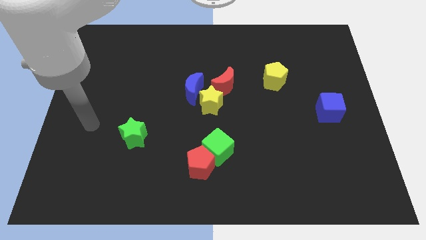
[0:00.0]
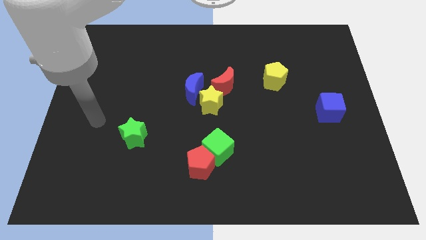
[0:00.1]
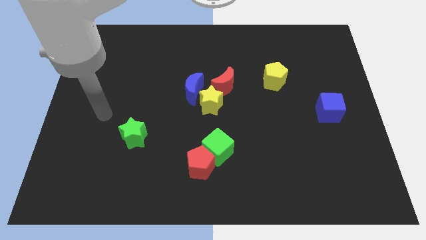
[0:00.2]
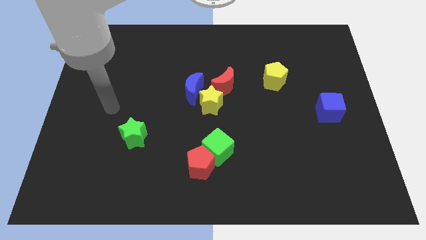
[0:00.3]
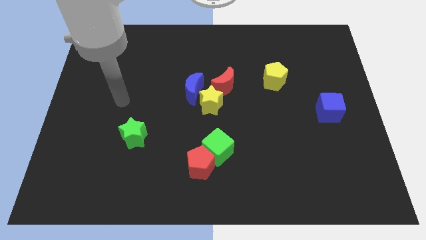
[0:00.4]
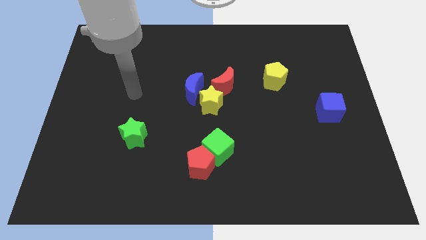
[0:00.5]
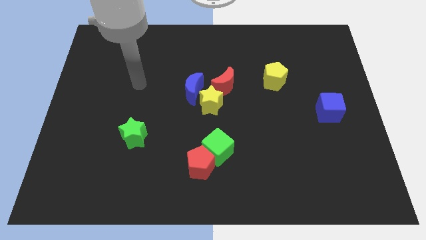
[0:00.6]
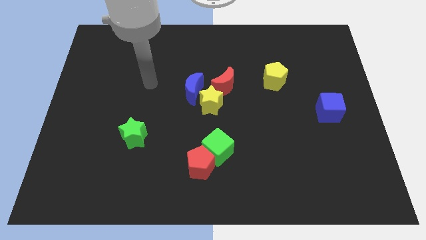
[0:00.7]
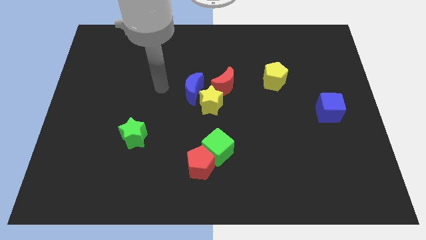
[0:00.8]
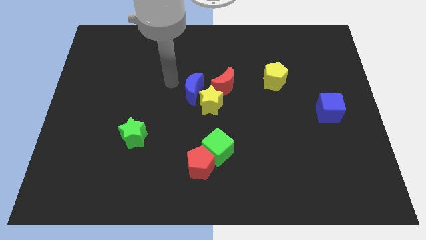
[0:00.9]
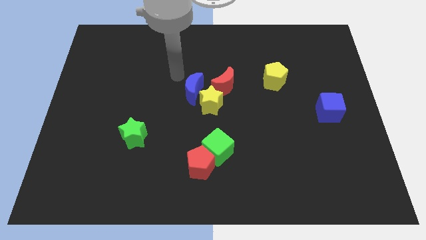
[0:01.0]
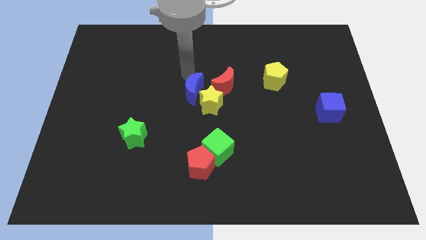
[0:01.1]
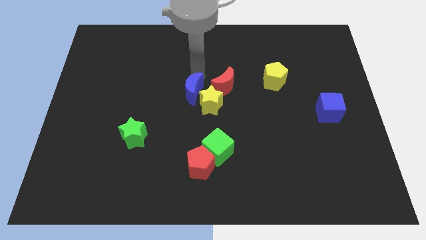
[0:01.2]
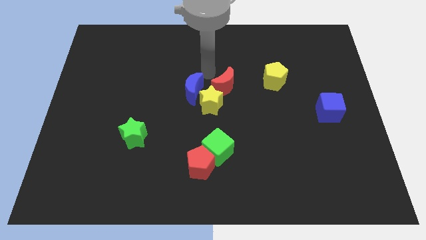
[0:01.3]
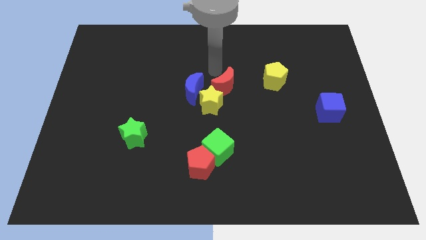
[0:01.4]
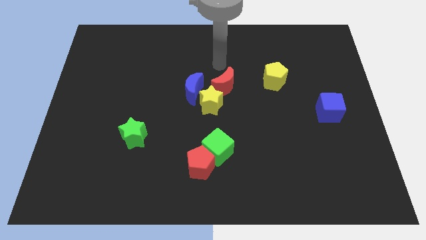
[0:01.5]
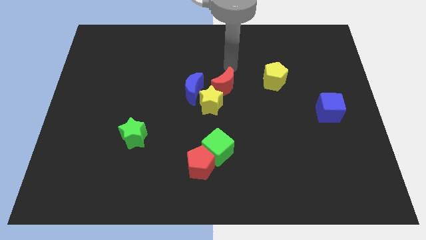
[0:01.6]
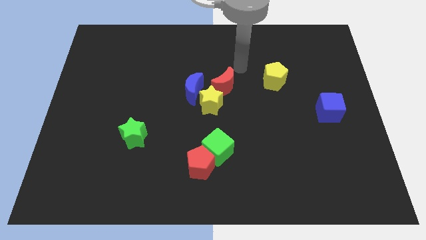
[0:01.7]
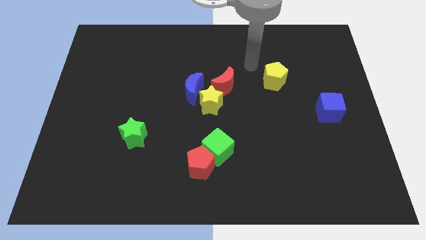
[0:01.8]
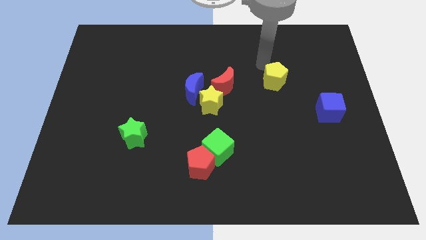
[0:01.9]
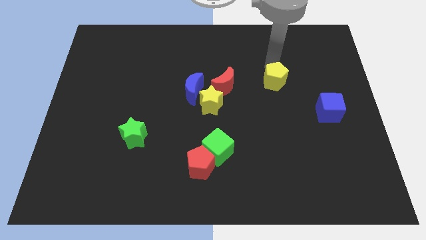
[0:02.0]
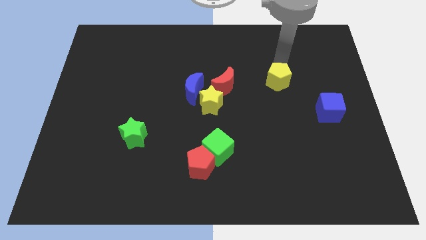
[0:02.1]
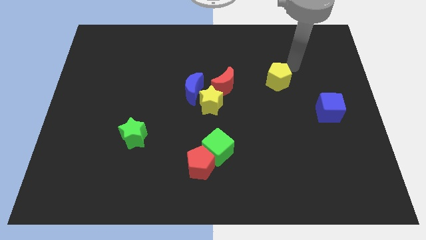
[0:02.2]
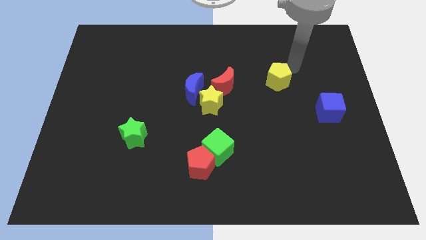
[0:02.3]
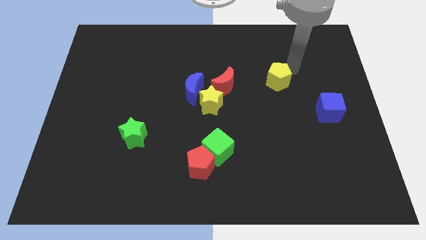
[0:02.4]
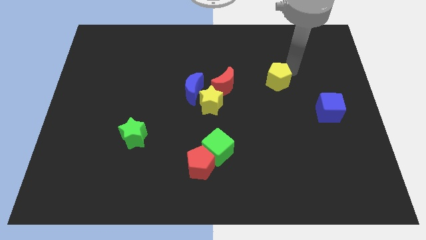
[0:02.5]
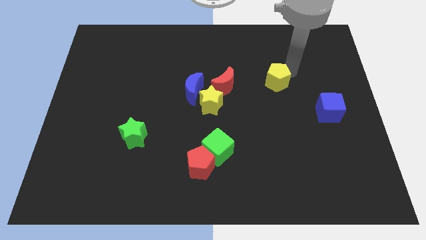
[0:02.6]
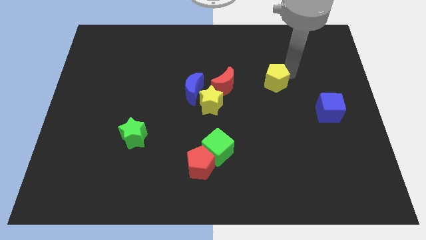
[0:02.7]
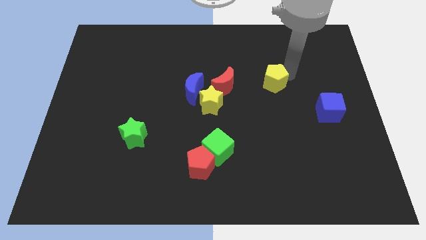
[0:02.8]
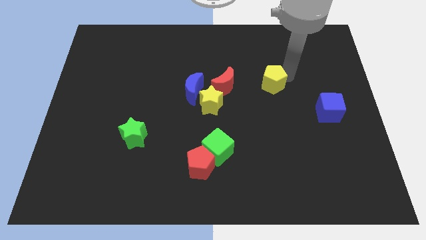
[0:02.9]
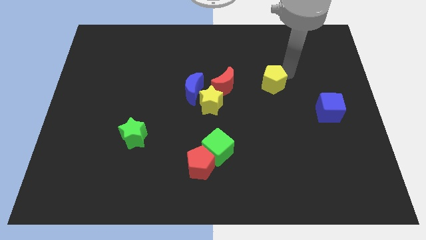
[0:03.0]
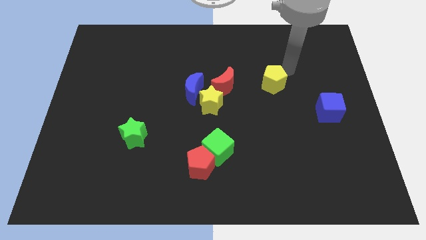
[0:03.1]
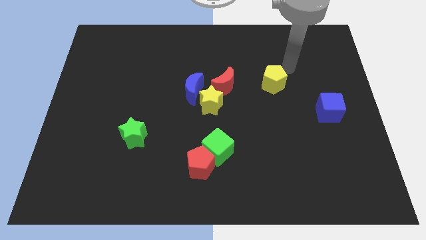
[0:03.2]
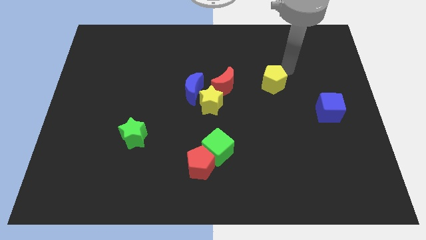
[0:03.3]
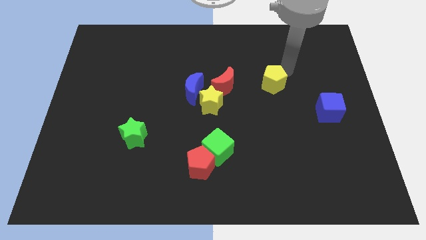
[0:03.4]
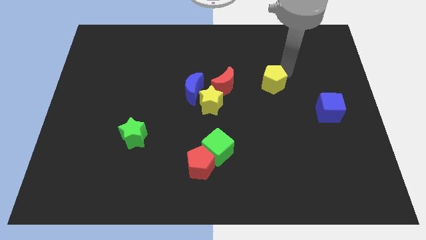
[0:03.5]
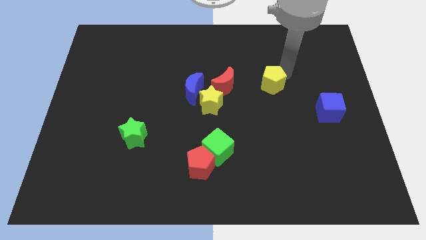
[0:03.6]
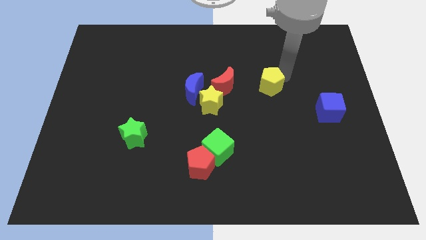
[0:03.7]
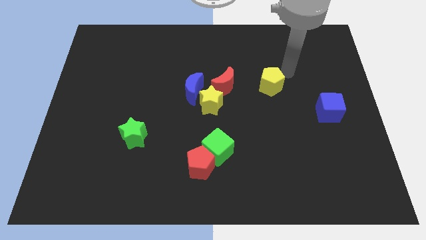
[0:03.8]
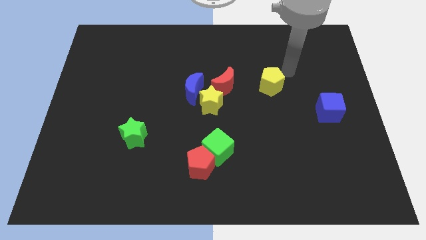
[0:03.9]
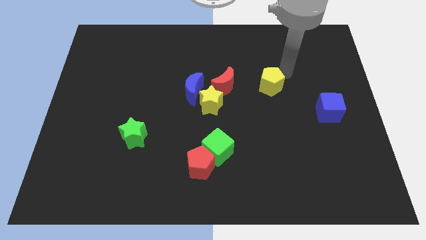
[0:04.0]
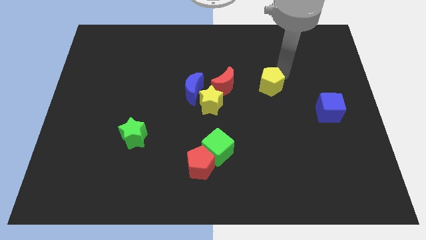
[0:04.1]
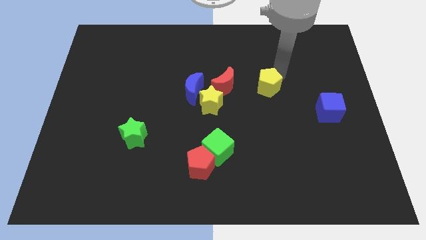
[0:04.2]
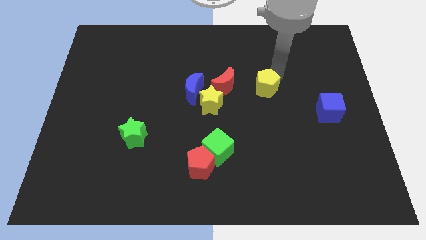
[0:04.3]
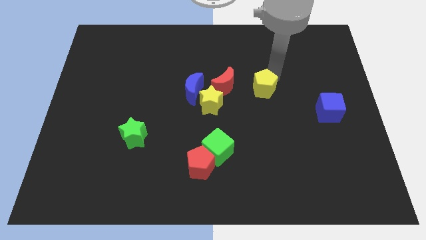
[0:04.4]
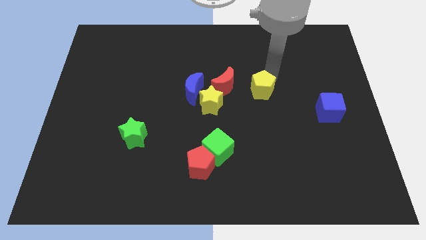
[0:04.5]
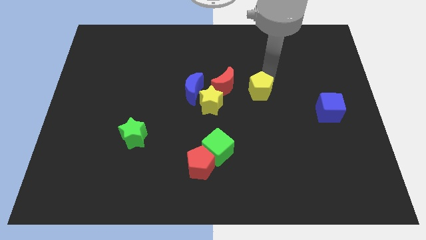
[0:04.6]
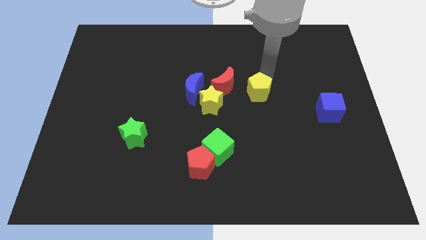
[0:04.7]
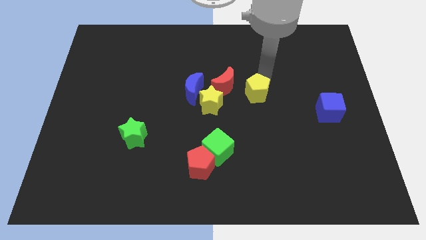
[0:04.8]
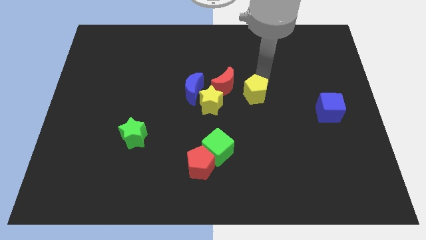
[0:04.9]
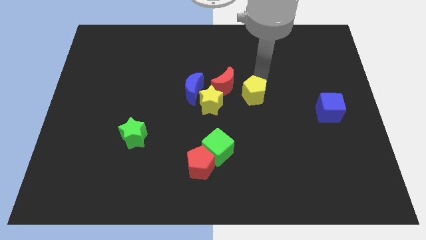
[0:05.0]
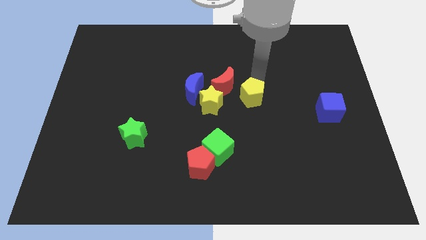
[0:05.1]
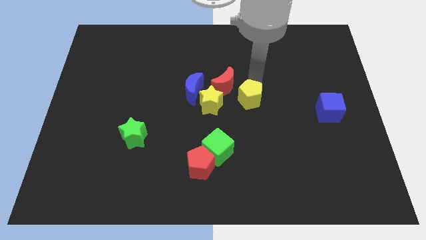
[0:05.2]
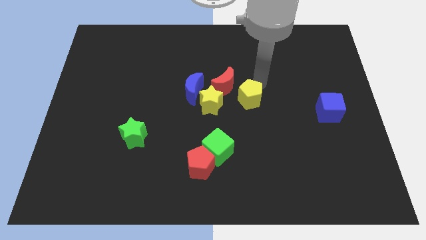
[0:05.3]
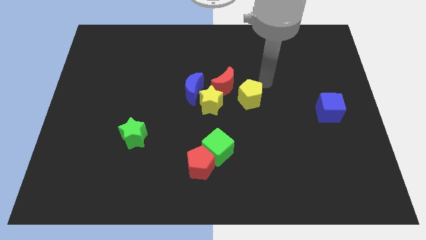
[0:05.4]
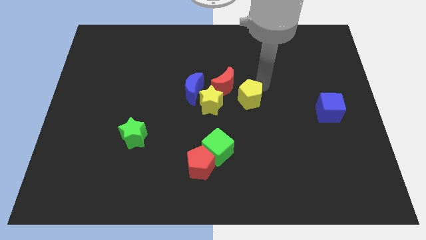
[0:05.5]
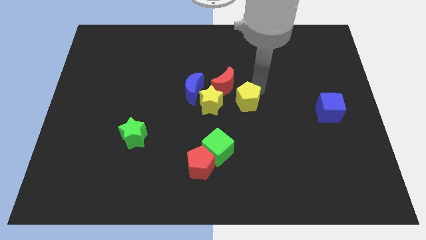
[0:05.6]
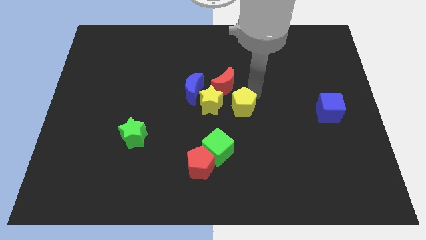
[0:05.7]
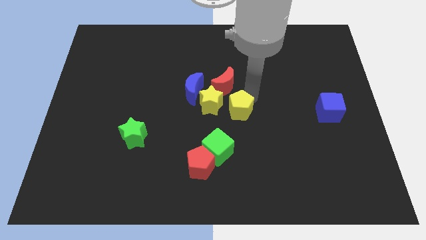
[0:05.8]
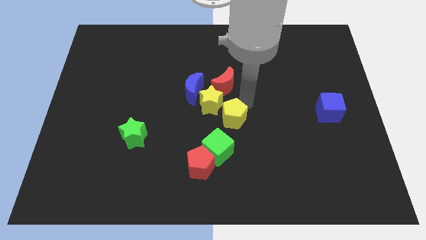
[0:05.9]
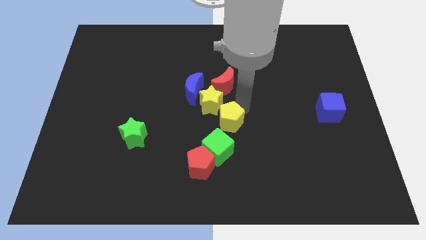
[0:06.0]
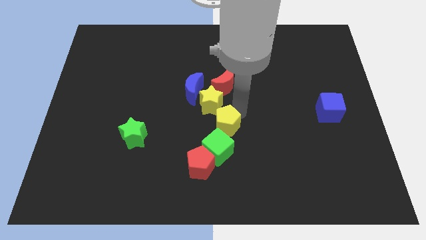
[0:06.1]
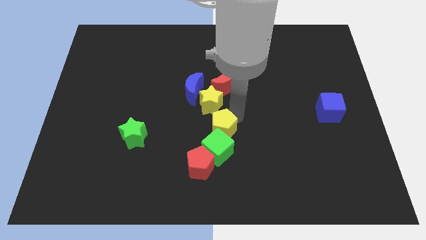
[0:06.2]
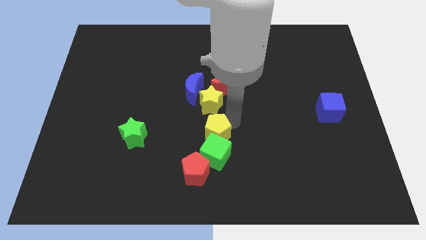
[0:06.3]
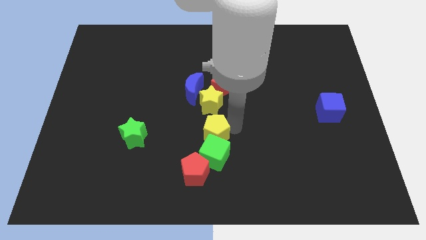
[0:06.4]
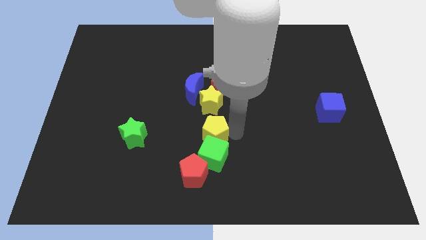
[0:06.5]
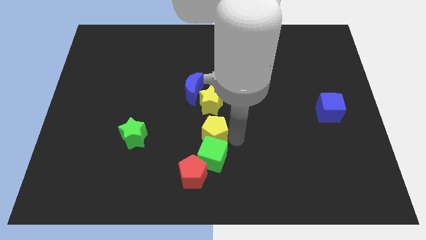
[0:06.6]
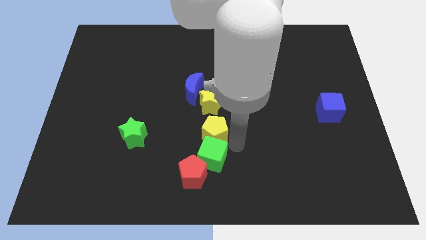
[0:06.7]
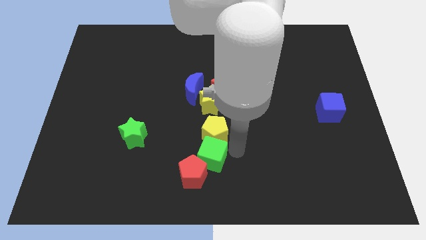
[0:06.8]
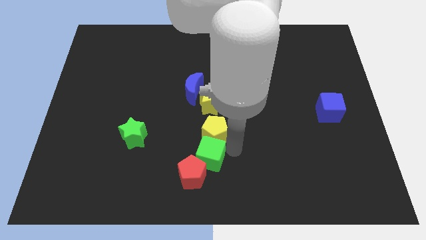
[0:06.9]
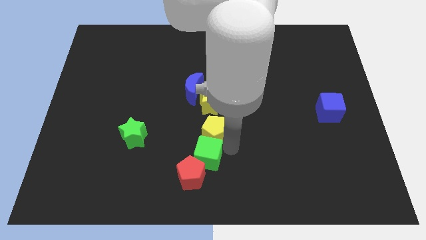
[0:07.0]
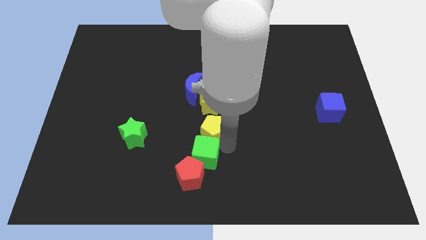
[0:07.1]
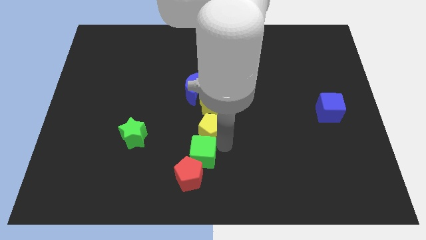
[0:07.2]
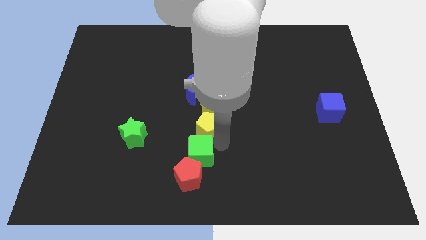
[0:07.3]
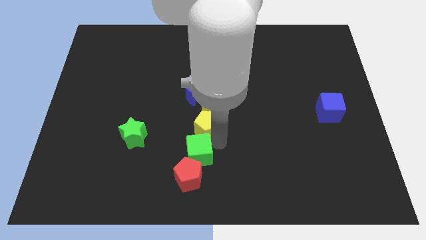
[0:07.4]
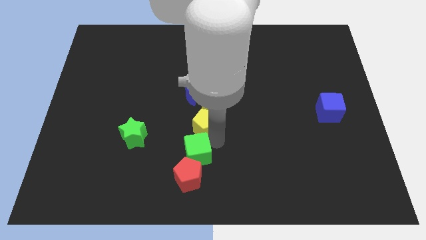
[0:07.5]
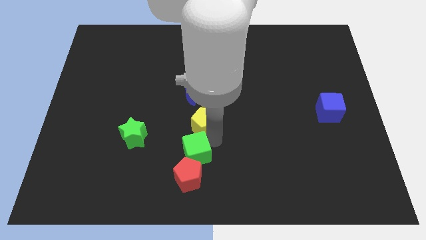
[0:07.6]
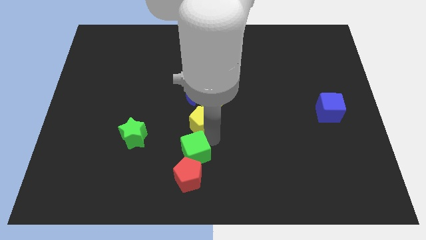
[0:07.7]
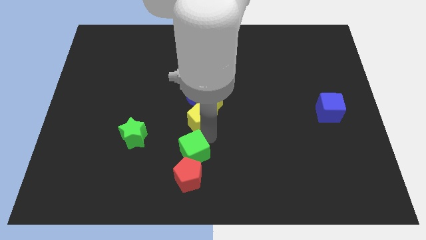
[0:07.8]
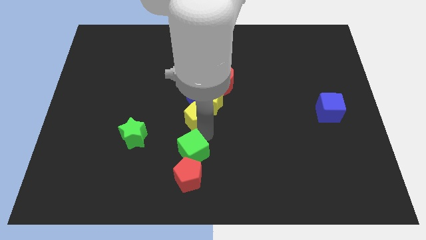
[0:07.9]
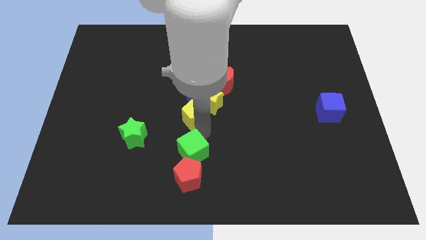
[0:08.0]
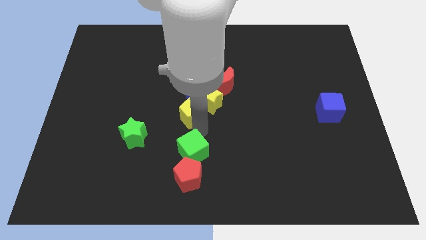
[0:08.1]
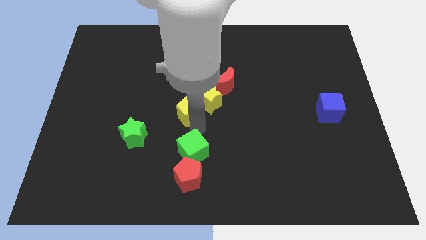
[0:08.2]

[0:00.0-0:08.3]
put the yellow pentagon to the bottom left of the blue moon
